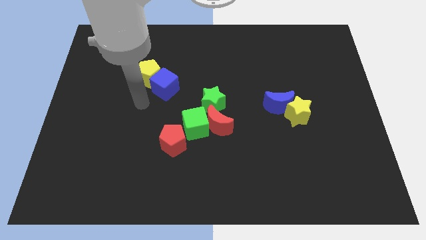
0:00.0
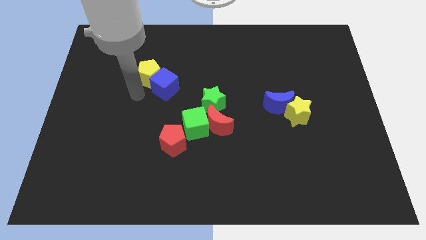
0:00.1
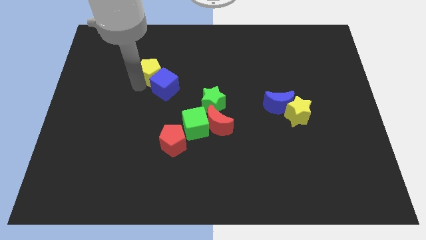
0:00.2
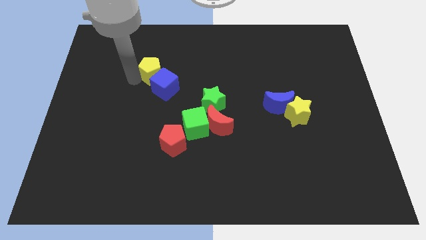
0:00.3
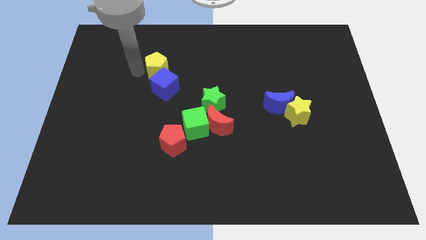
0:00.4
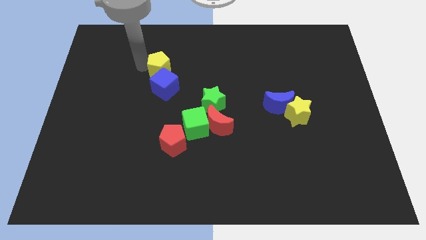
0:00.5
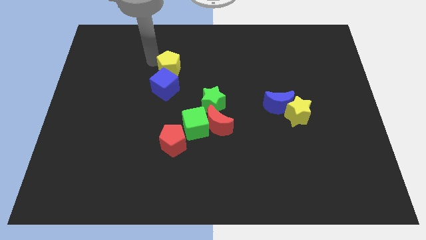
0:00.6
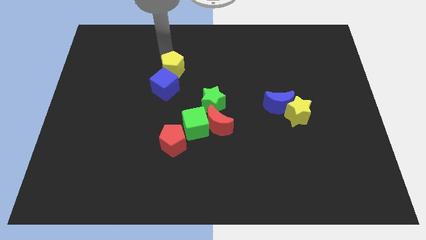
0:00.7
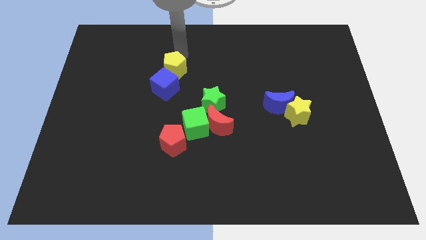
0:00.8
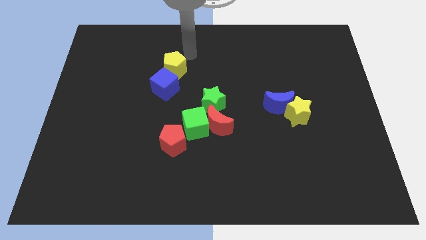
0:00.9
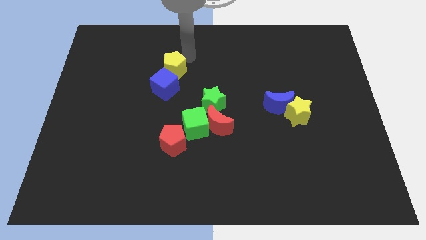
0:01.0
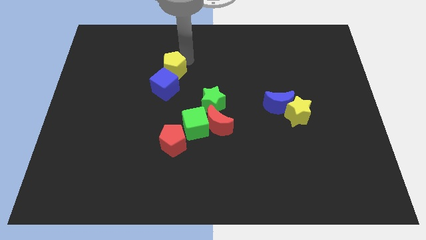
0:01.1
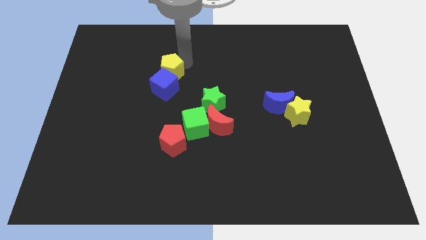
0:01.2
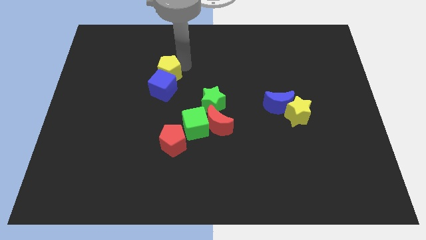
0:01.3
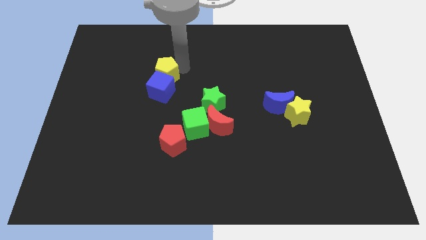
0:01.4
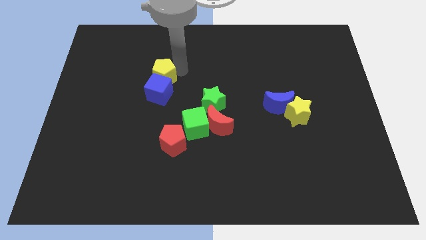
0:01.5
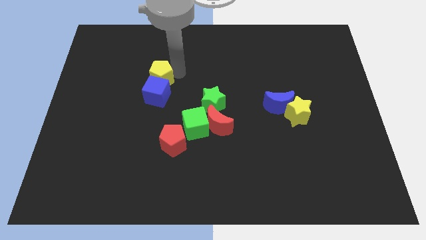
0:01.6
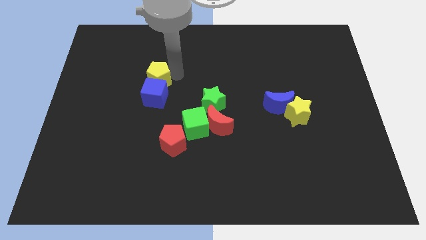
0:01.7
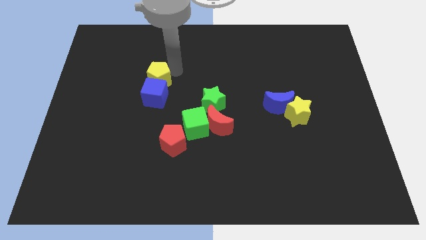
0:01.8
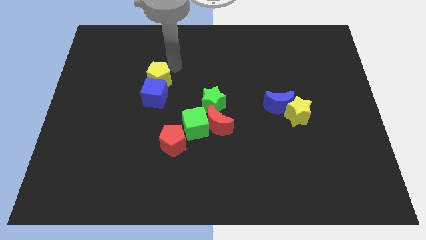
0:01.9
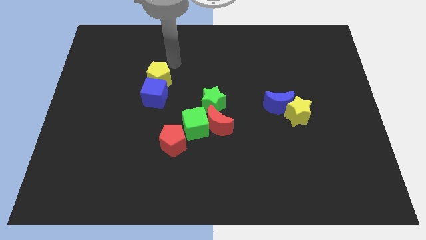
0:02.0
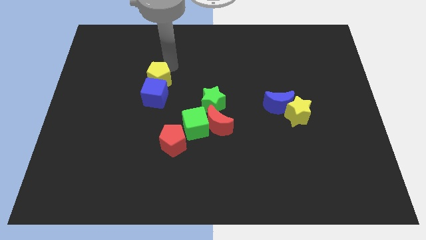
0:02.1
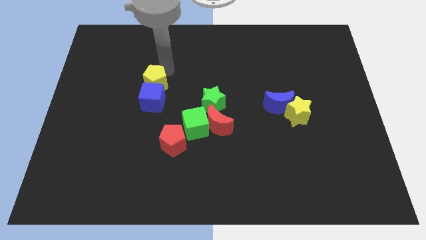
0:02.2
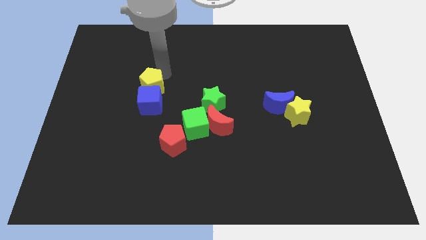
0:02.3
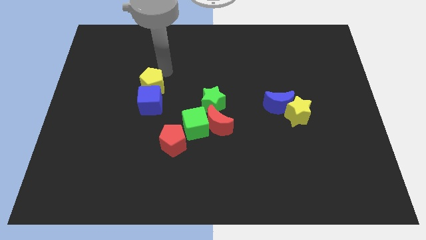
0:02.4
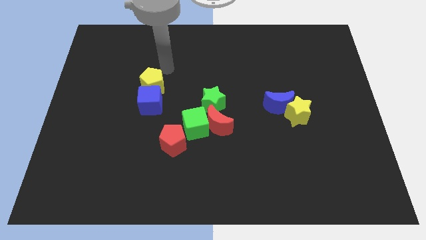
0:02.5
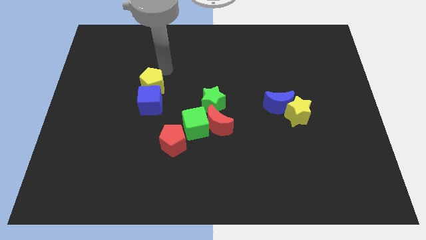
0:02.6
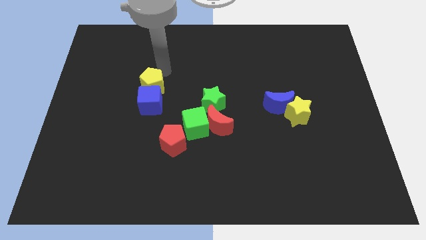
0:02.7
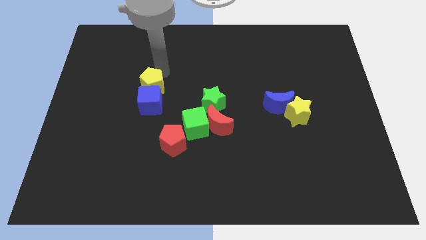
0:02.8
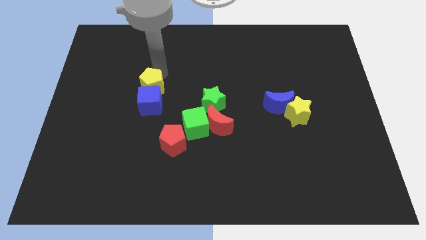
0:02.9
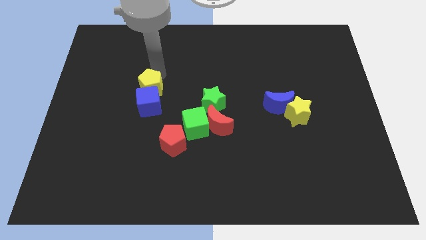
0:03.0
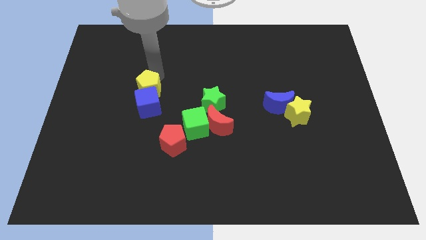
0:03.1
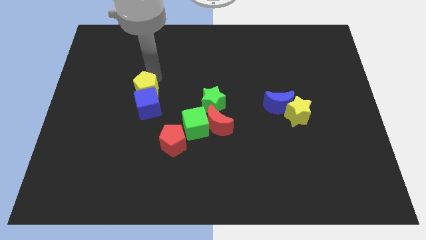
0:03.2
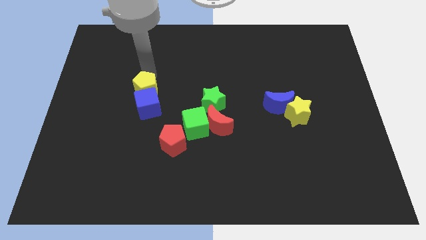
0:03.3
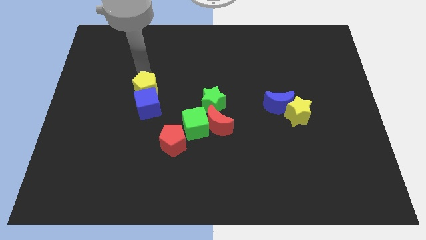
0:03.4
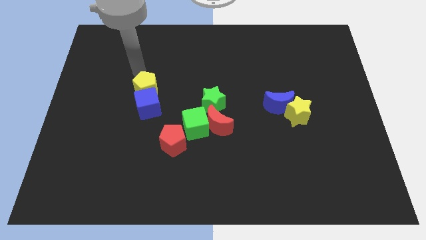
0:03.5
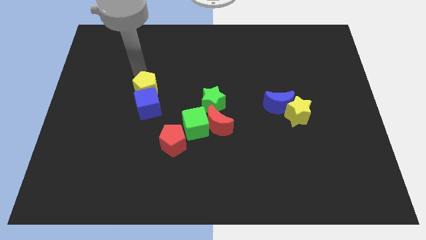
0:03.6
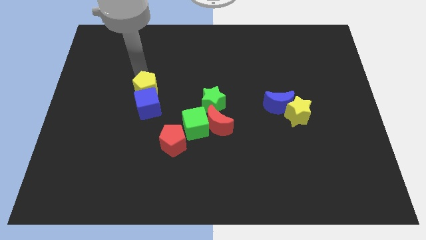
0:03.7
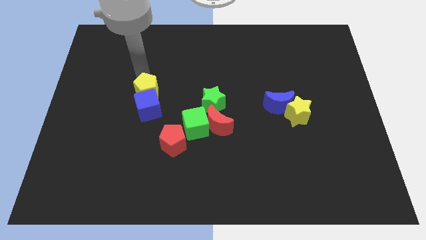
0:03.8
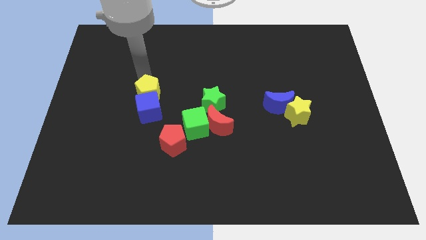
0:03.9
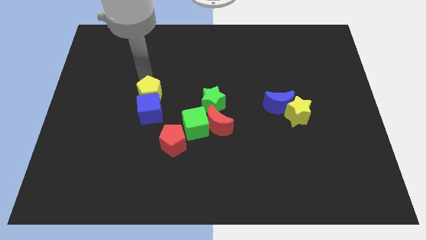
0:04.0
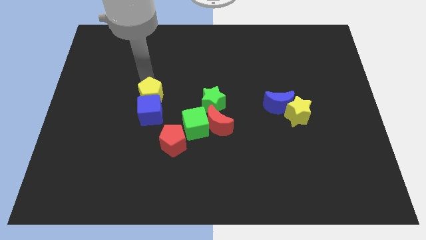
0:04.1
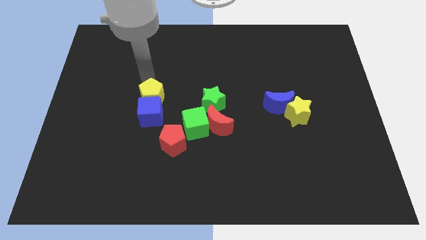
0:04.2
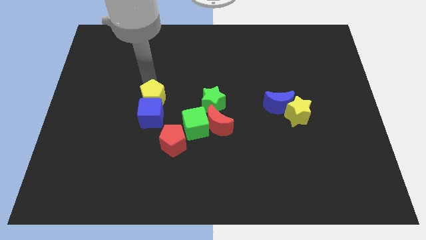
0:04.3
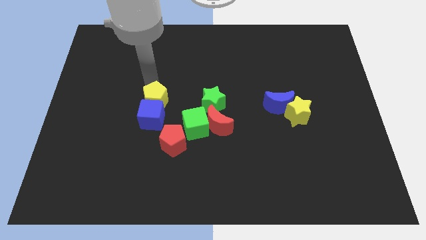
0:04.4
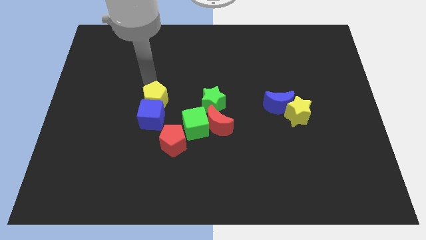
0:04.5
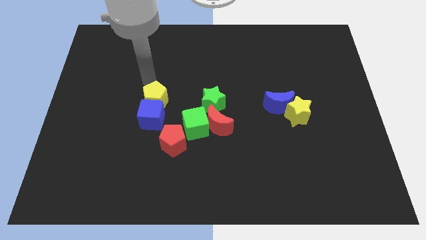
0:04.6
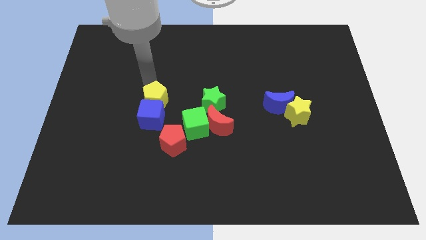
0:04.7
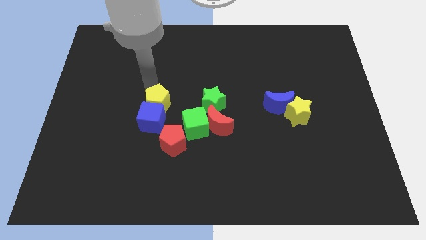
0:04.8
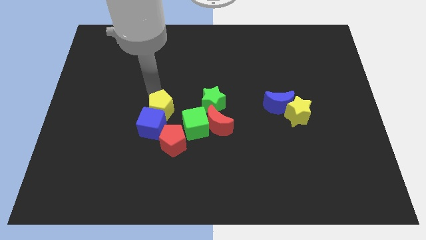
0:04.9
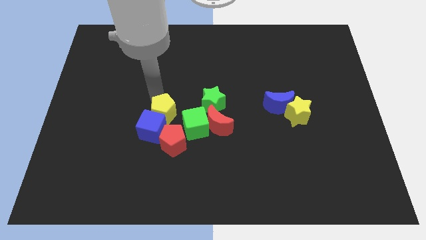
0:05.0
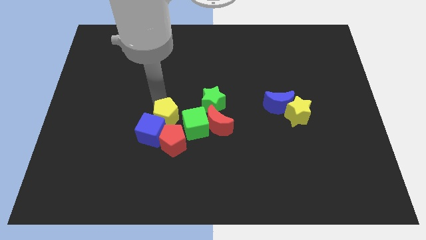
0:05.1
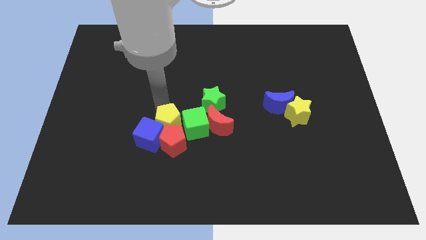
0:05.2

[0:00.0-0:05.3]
move the yellow pentagon close to the red pentagon

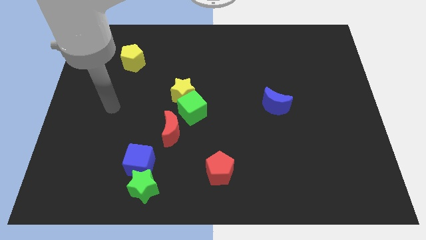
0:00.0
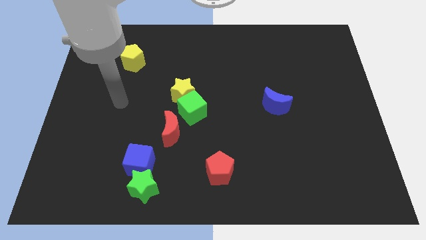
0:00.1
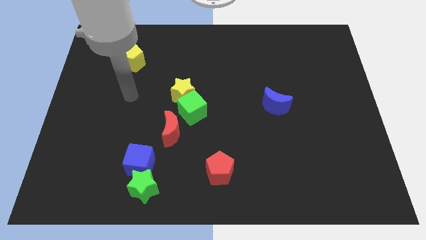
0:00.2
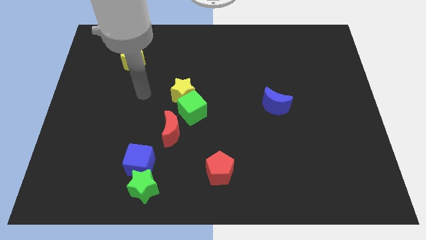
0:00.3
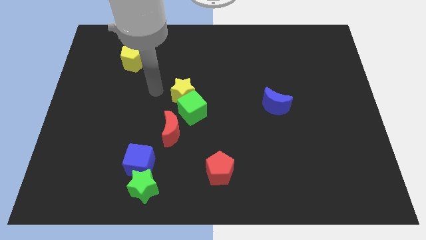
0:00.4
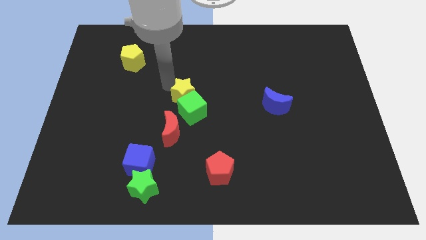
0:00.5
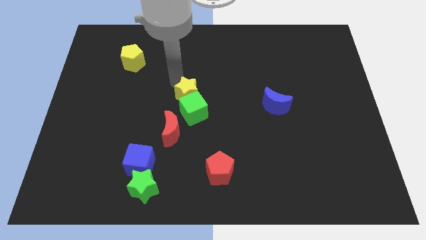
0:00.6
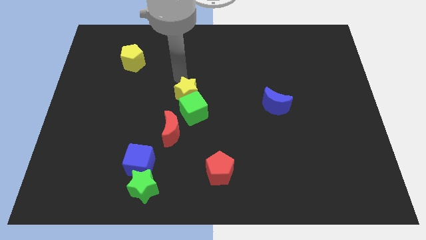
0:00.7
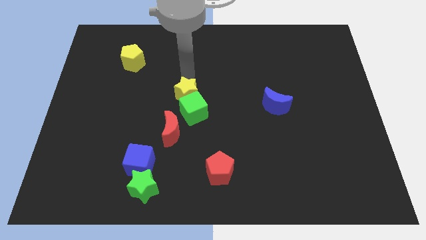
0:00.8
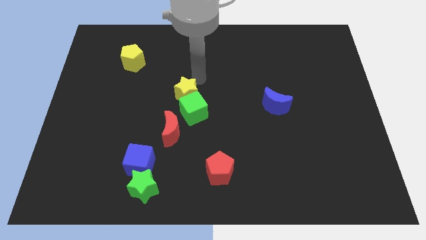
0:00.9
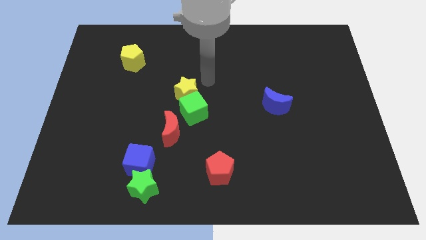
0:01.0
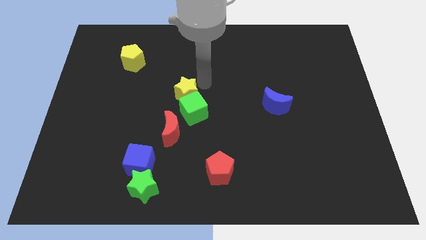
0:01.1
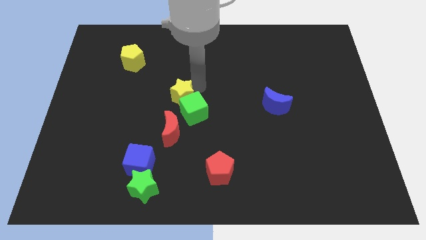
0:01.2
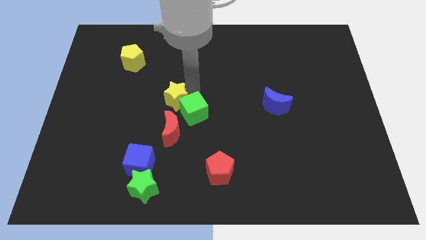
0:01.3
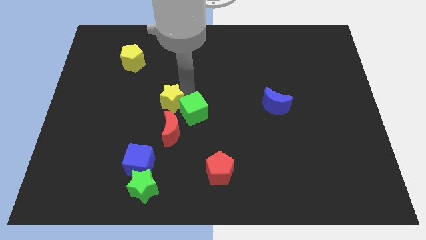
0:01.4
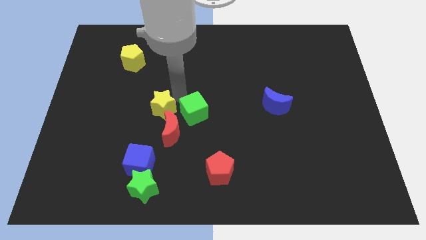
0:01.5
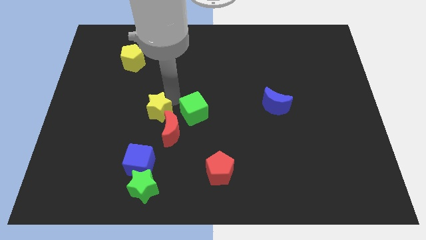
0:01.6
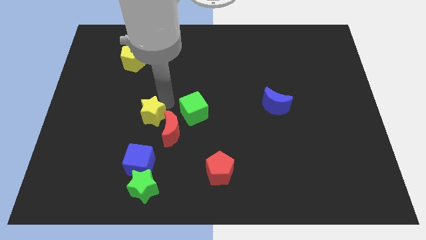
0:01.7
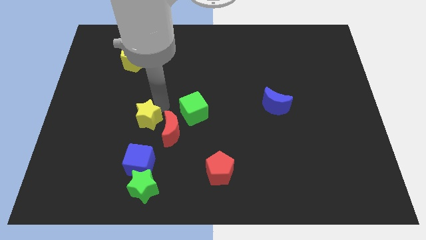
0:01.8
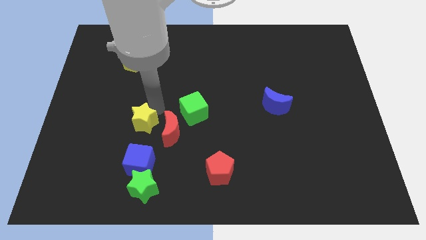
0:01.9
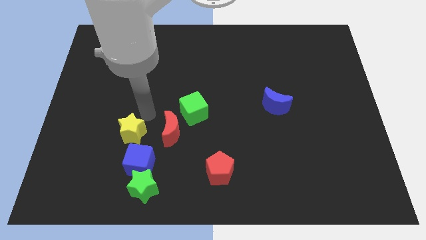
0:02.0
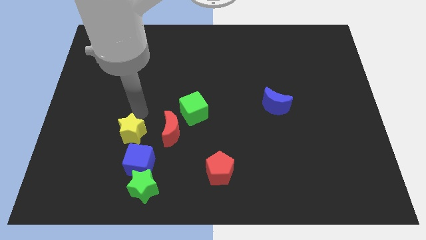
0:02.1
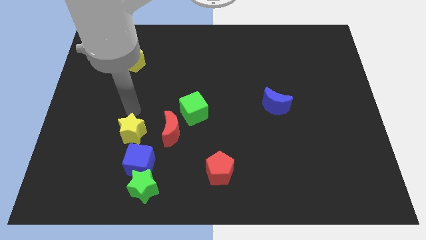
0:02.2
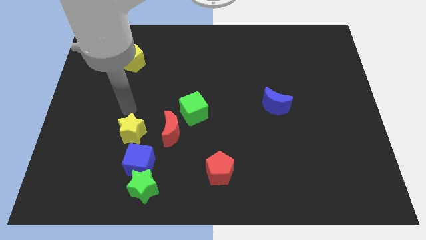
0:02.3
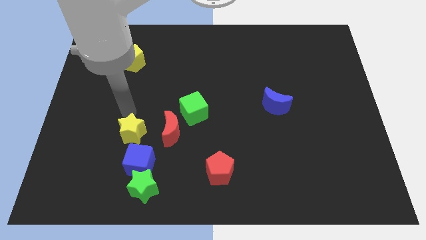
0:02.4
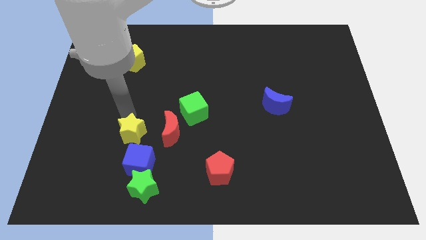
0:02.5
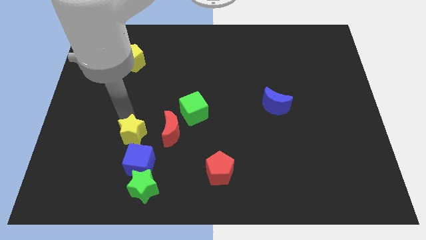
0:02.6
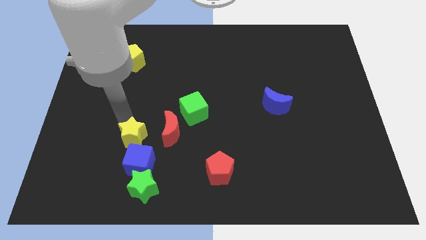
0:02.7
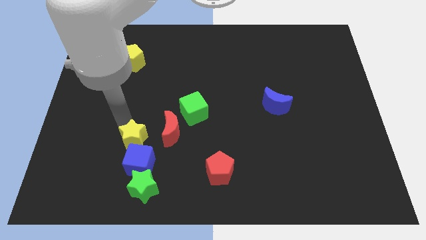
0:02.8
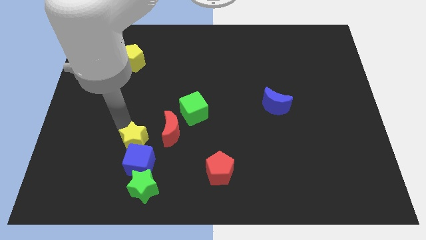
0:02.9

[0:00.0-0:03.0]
slide the yellow star close to the blue cube
